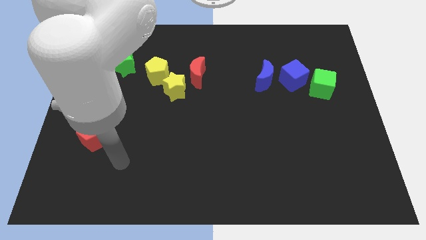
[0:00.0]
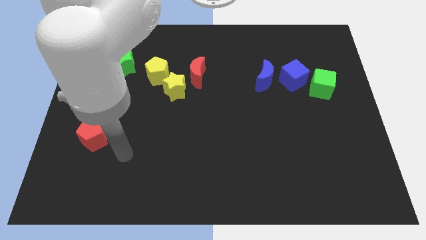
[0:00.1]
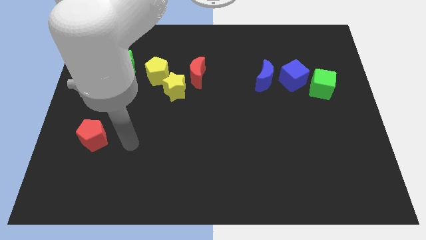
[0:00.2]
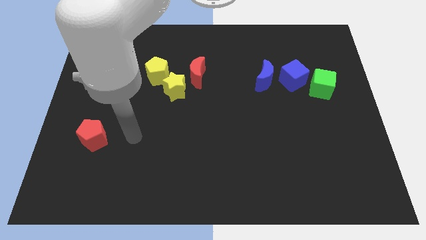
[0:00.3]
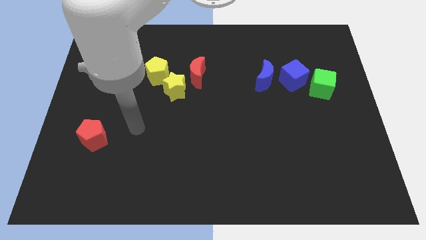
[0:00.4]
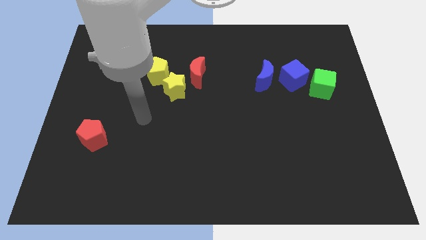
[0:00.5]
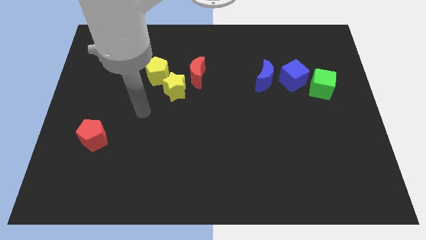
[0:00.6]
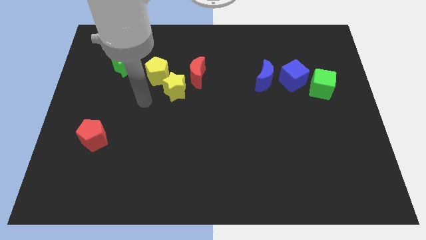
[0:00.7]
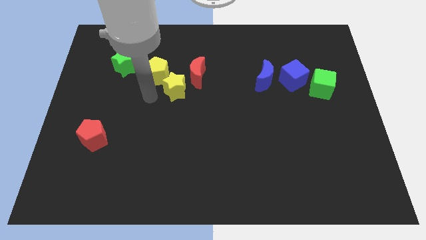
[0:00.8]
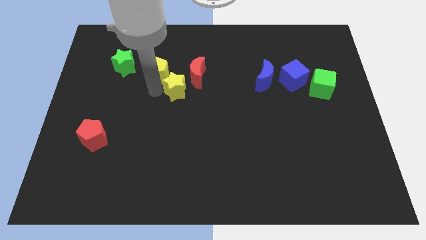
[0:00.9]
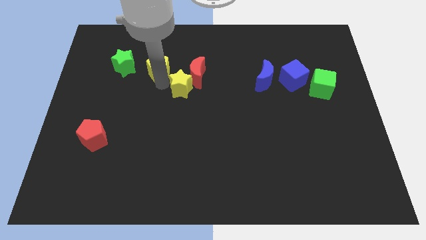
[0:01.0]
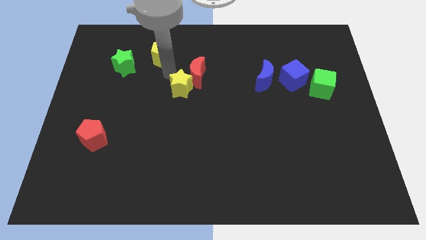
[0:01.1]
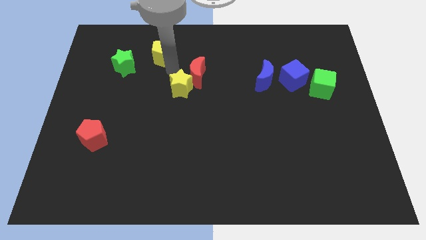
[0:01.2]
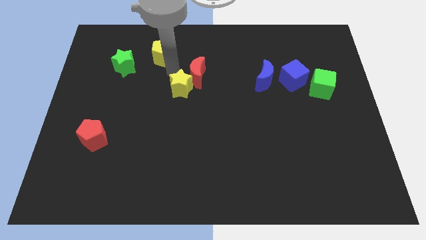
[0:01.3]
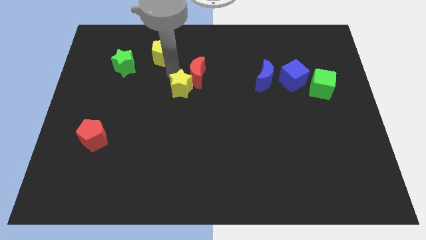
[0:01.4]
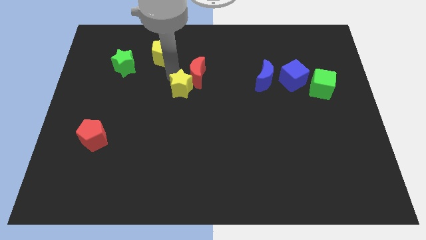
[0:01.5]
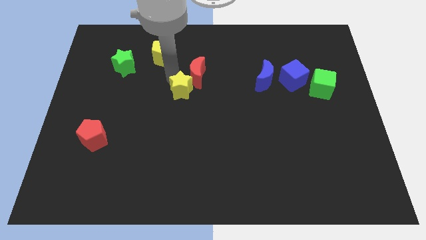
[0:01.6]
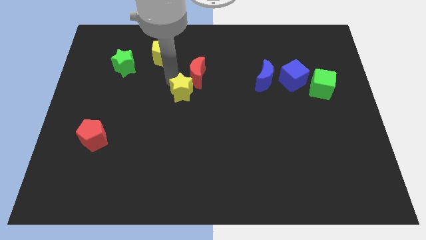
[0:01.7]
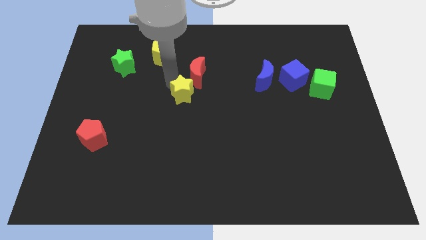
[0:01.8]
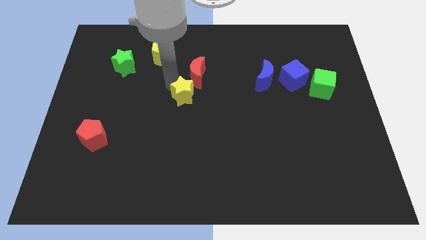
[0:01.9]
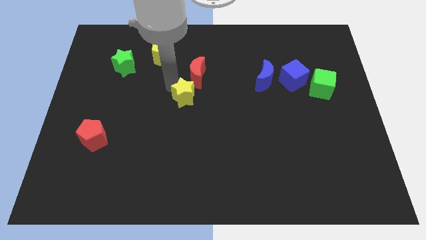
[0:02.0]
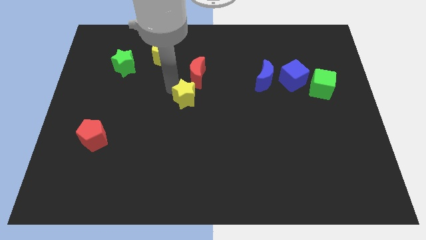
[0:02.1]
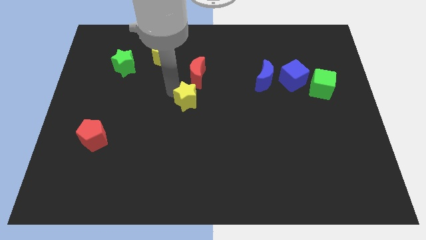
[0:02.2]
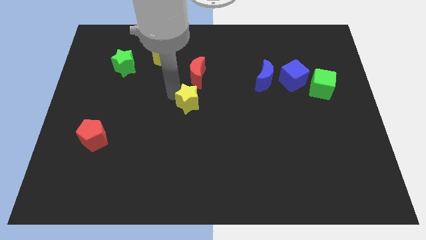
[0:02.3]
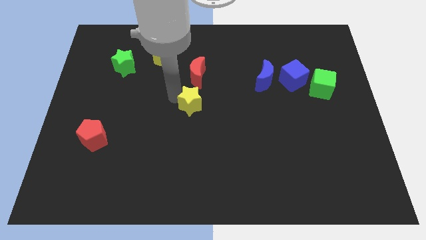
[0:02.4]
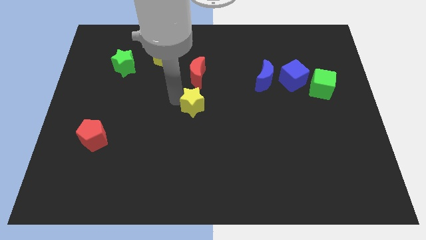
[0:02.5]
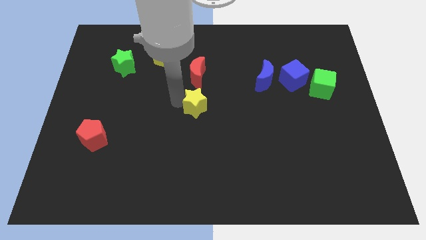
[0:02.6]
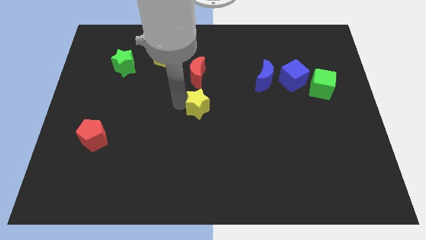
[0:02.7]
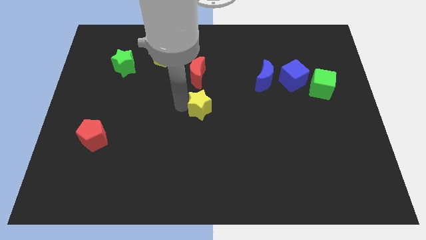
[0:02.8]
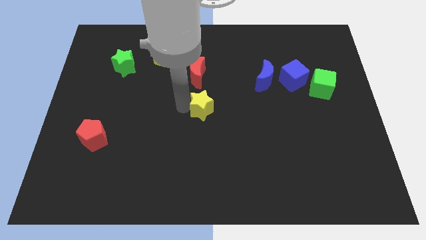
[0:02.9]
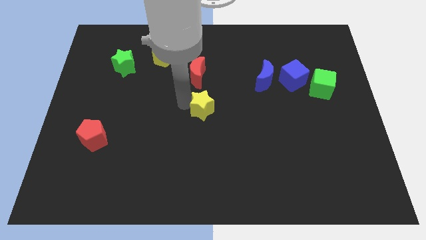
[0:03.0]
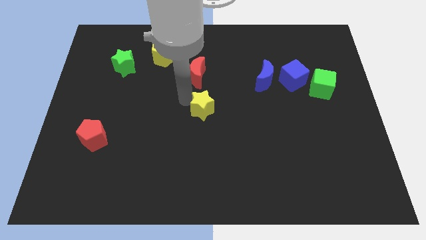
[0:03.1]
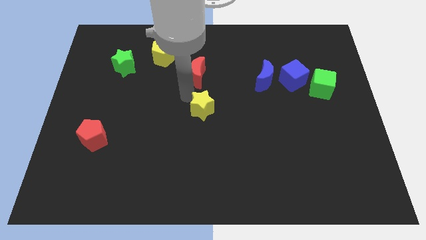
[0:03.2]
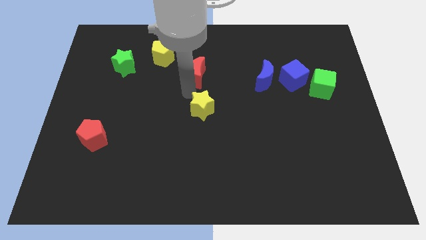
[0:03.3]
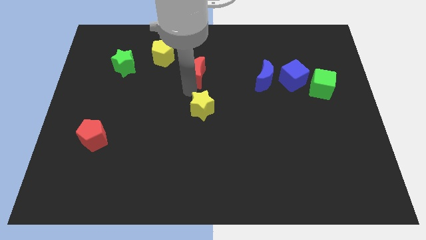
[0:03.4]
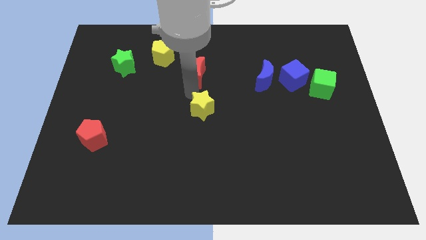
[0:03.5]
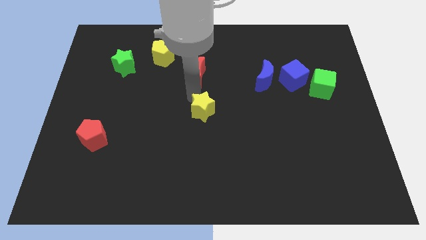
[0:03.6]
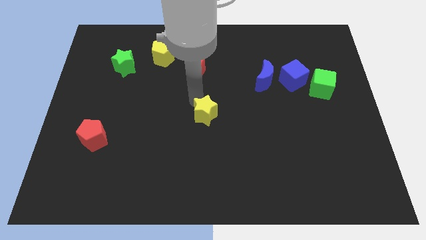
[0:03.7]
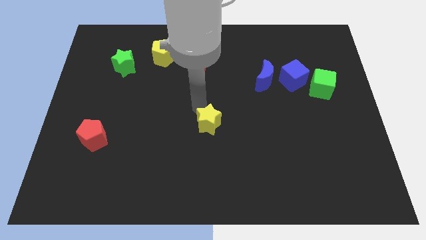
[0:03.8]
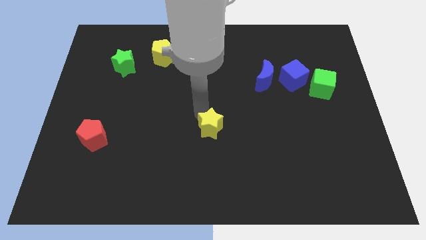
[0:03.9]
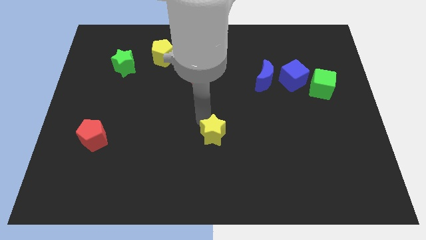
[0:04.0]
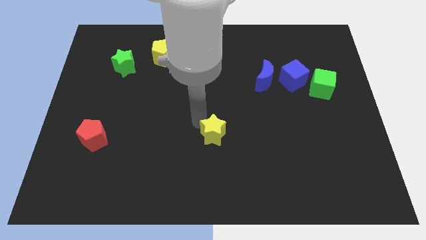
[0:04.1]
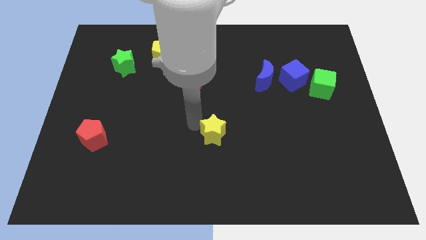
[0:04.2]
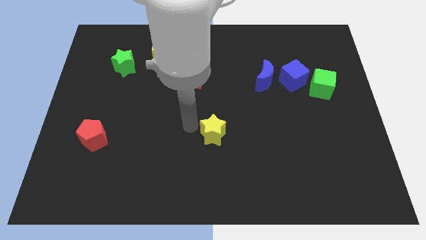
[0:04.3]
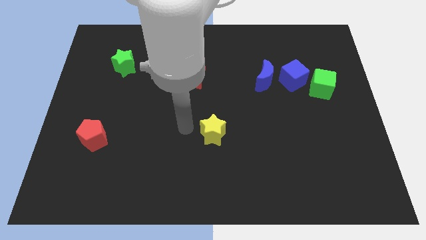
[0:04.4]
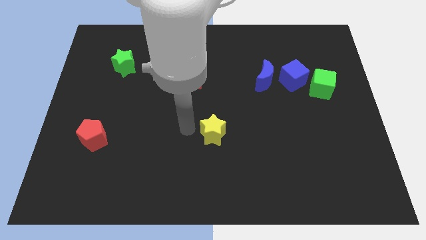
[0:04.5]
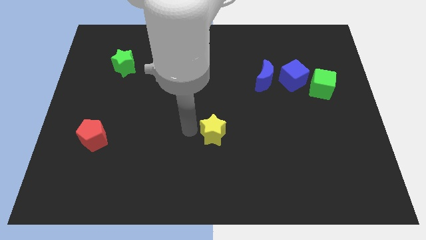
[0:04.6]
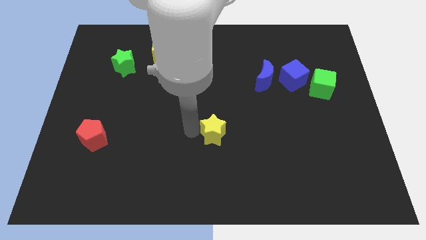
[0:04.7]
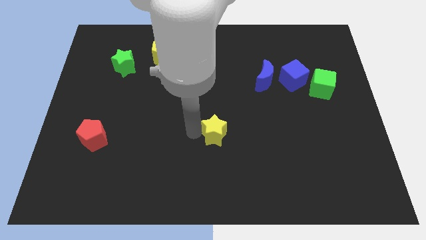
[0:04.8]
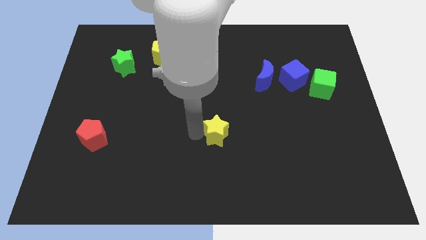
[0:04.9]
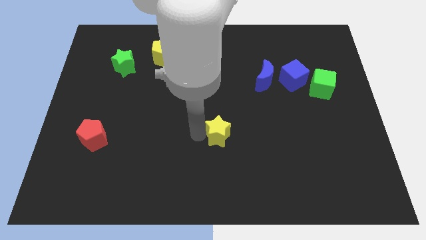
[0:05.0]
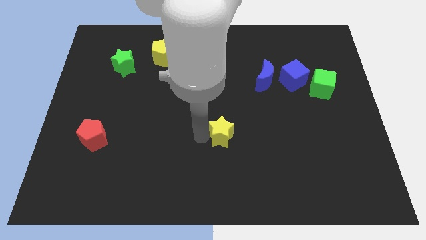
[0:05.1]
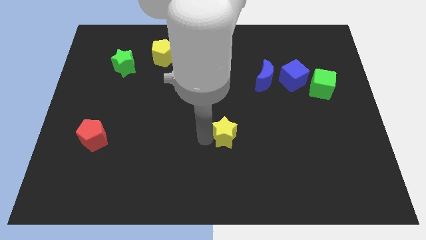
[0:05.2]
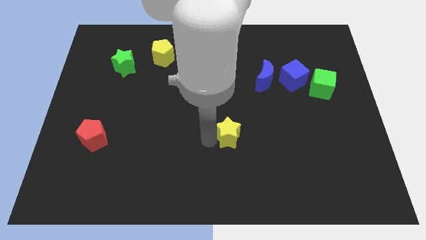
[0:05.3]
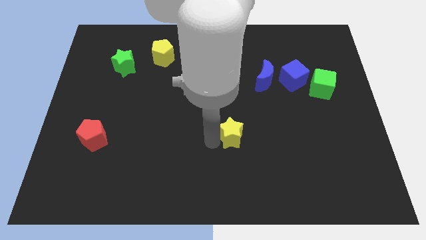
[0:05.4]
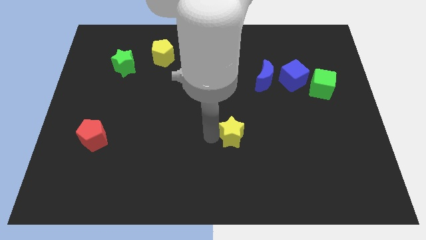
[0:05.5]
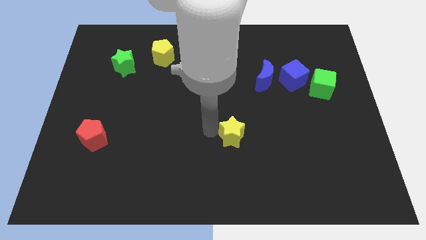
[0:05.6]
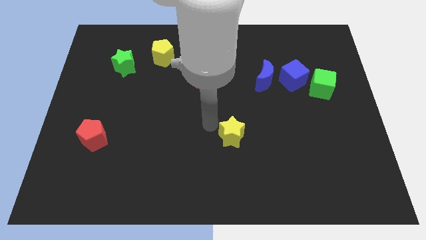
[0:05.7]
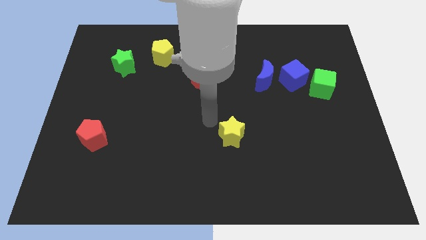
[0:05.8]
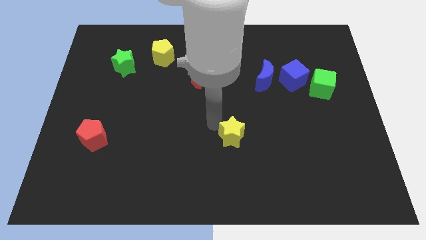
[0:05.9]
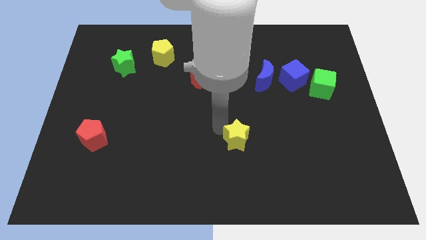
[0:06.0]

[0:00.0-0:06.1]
slide the yellow star down and right

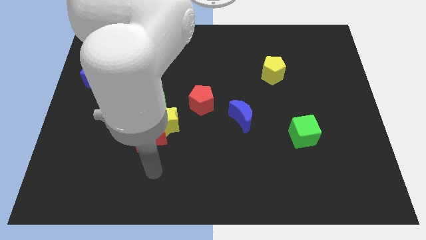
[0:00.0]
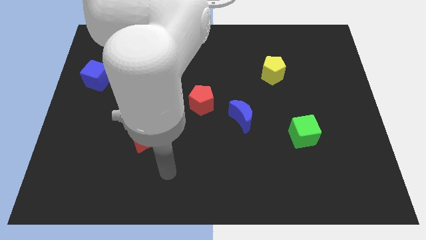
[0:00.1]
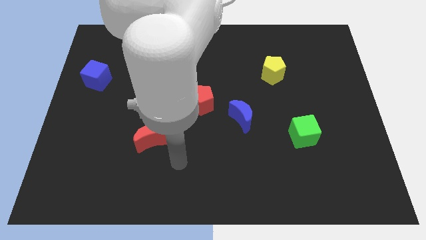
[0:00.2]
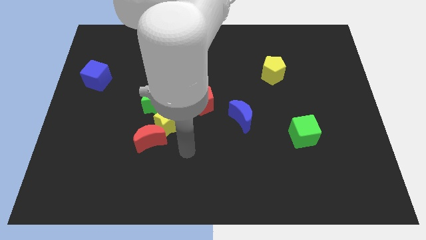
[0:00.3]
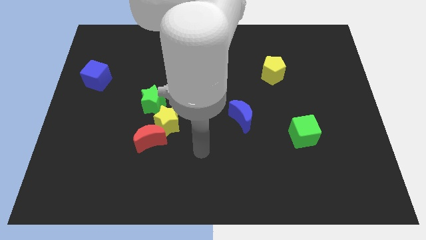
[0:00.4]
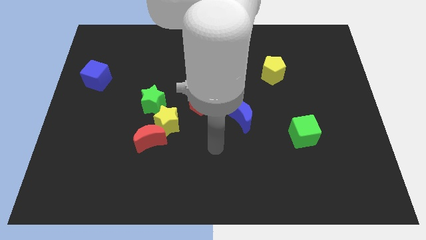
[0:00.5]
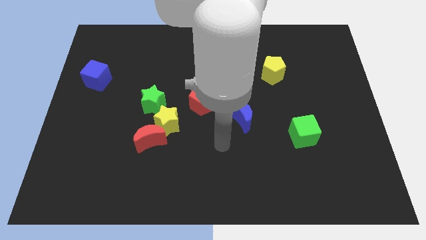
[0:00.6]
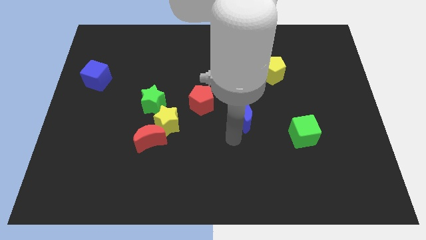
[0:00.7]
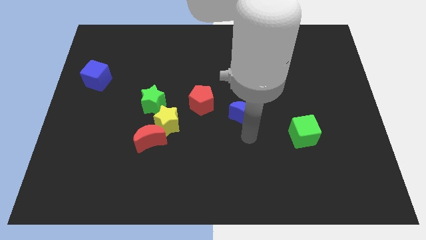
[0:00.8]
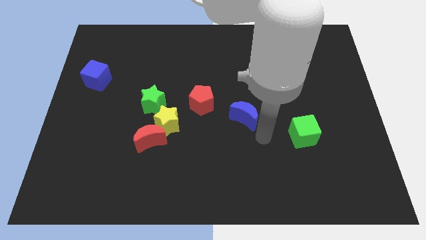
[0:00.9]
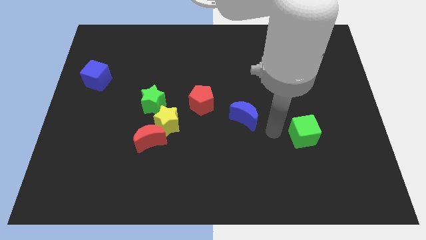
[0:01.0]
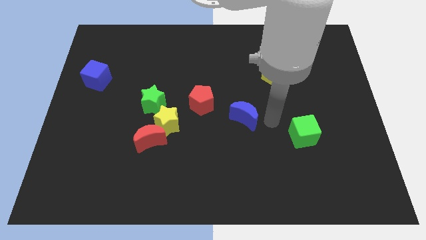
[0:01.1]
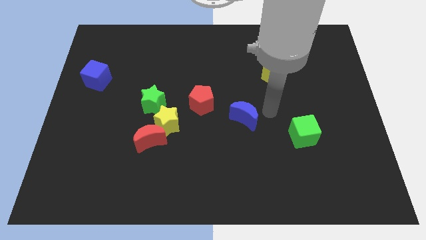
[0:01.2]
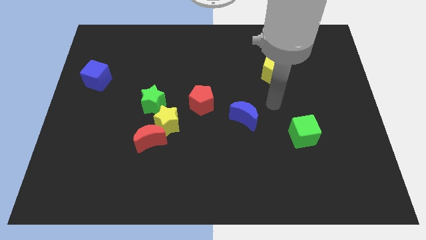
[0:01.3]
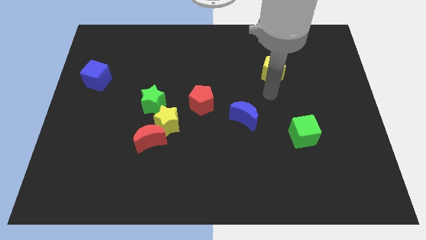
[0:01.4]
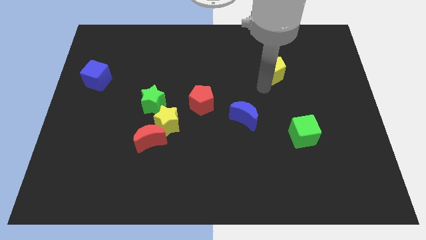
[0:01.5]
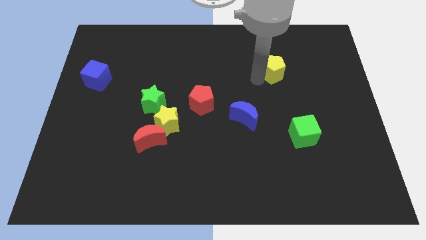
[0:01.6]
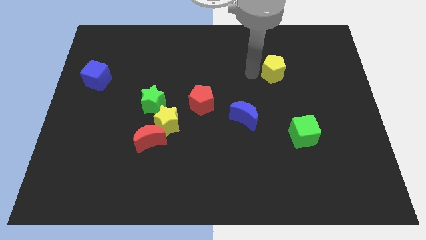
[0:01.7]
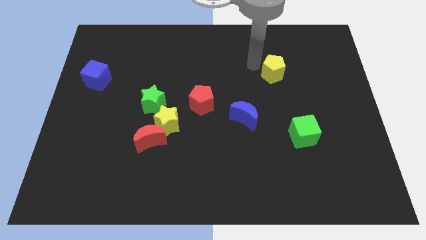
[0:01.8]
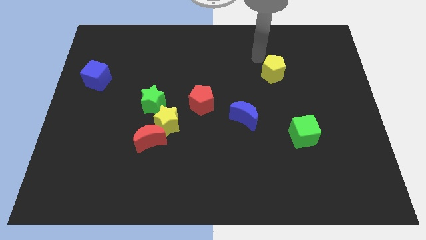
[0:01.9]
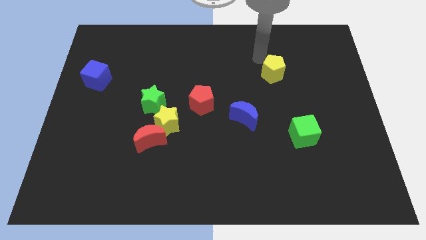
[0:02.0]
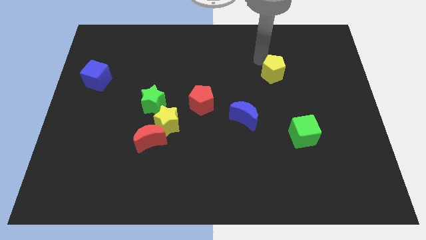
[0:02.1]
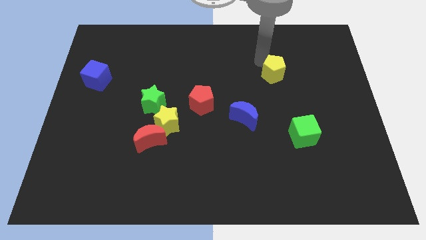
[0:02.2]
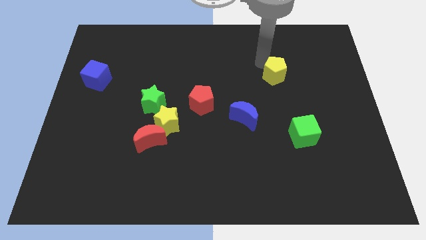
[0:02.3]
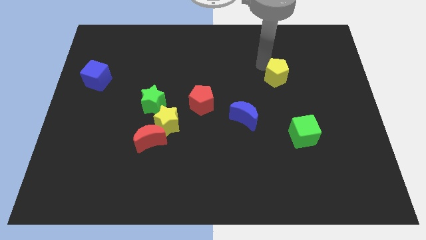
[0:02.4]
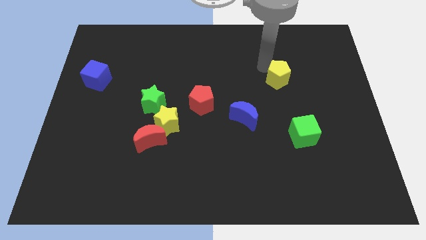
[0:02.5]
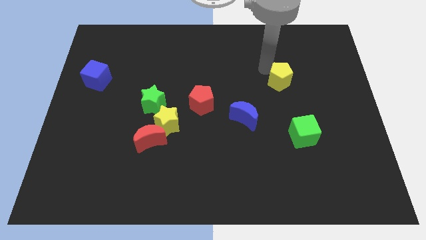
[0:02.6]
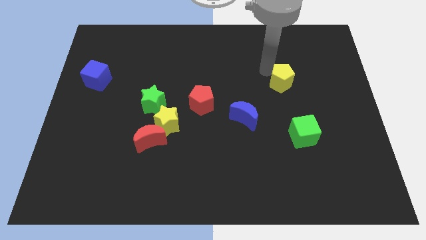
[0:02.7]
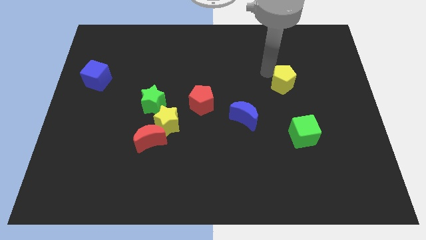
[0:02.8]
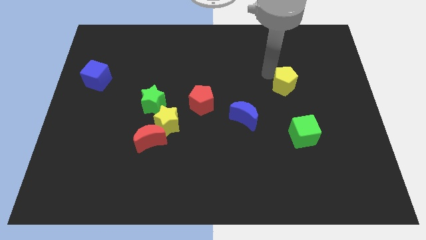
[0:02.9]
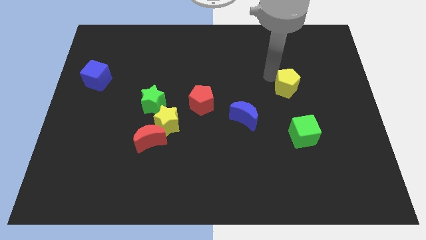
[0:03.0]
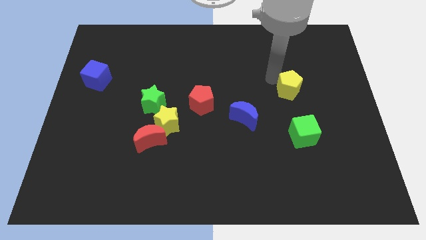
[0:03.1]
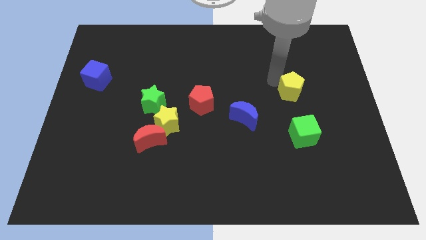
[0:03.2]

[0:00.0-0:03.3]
slide the yellow pentagon diagonally down and to the right somewhat
